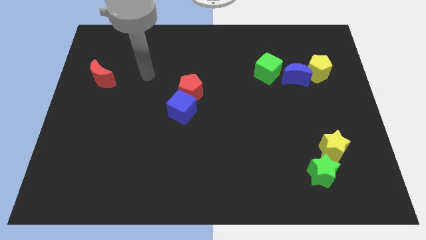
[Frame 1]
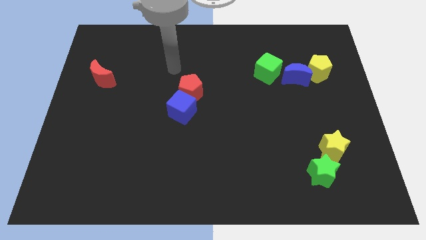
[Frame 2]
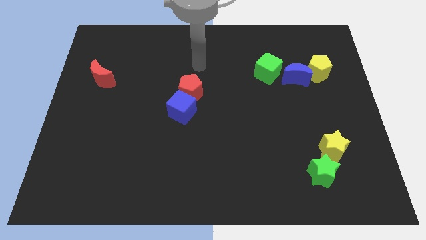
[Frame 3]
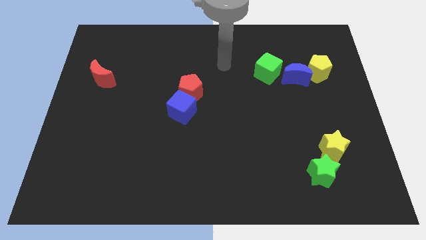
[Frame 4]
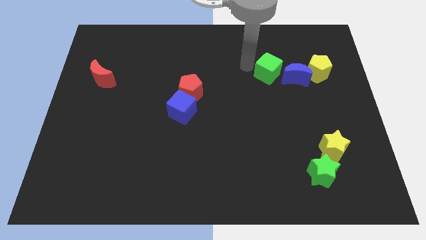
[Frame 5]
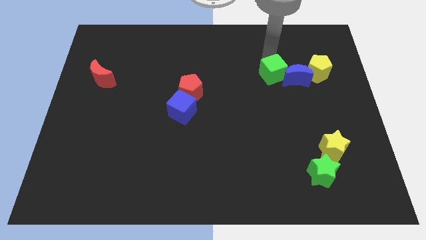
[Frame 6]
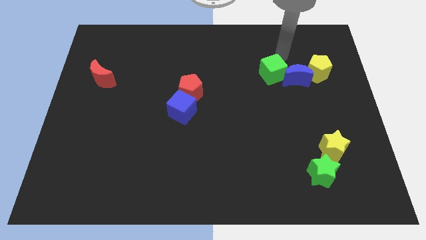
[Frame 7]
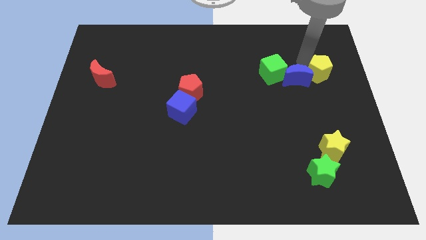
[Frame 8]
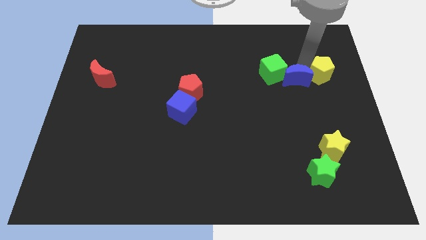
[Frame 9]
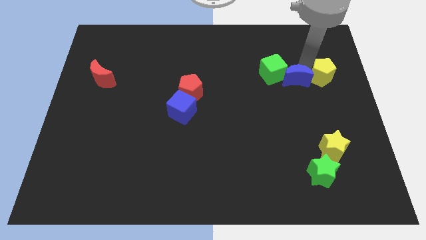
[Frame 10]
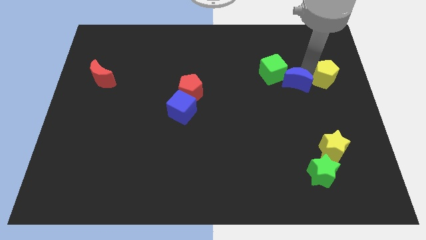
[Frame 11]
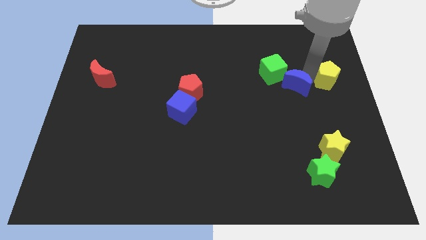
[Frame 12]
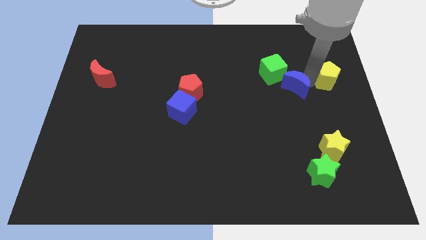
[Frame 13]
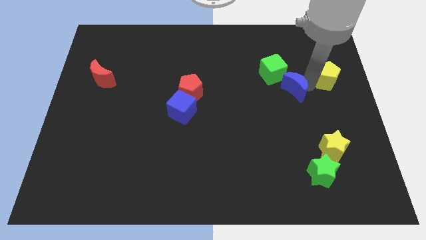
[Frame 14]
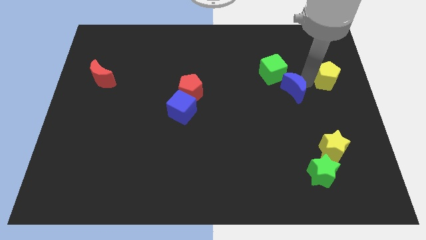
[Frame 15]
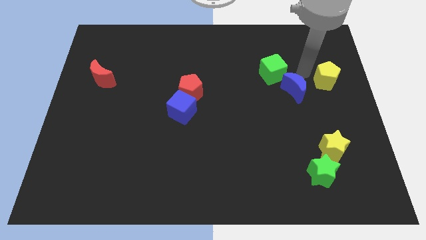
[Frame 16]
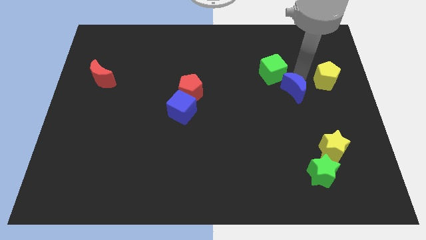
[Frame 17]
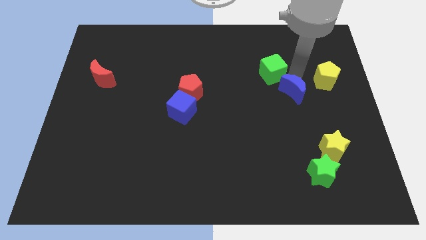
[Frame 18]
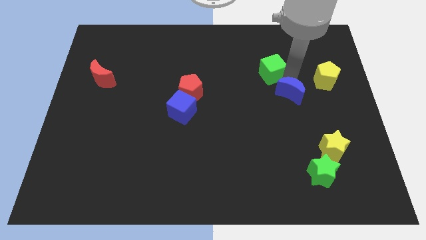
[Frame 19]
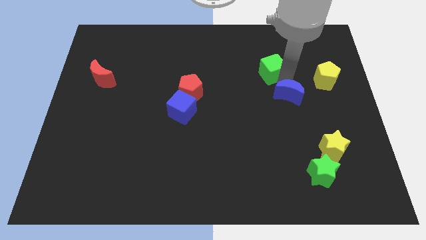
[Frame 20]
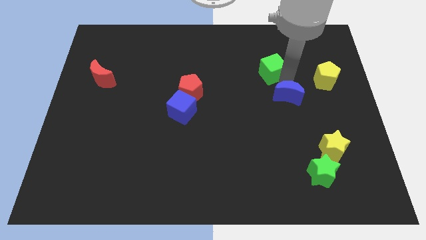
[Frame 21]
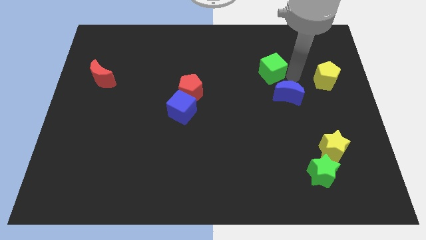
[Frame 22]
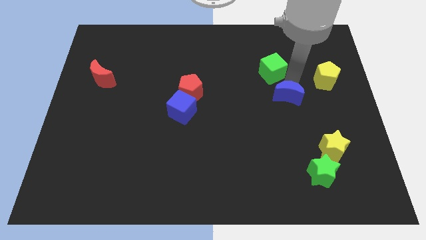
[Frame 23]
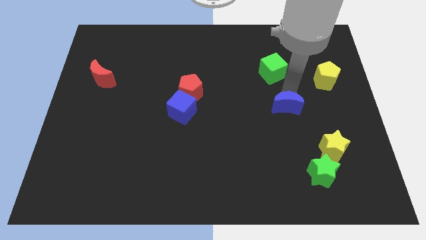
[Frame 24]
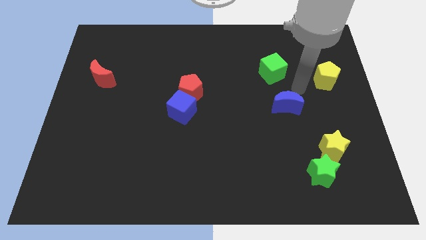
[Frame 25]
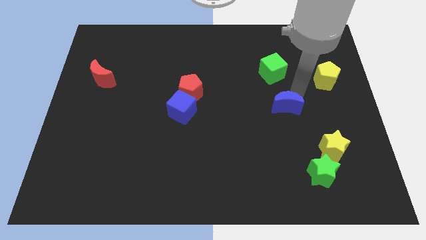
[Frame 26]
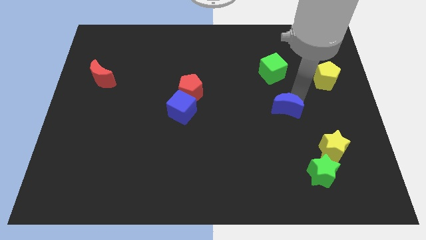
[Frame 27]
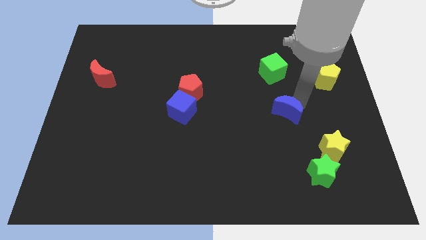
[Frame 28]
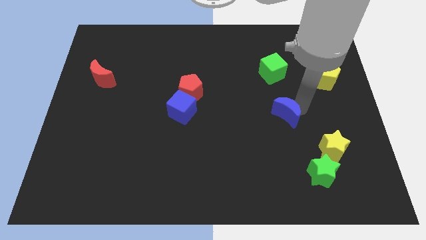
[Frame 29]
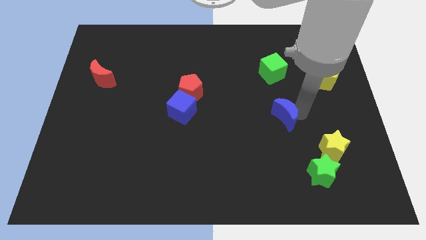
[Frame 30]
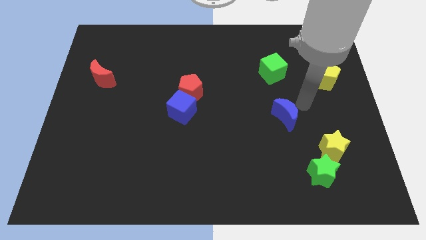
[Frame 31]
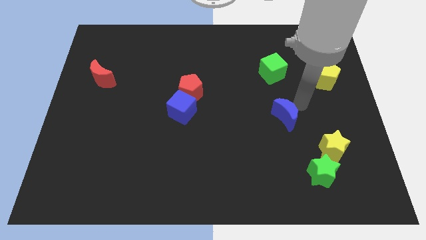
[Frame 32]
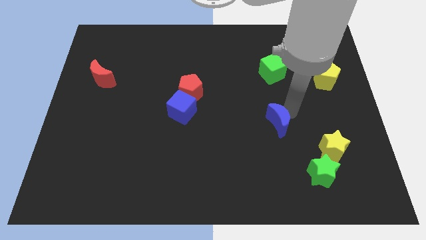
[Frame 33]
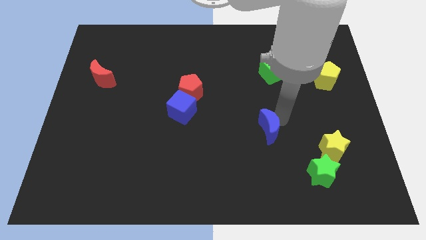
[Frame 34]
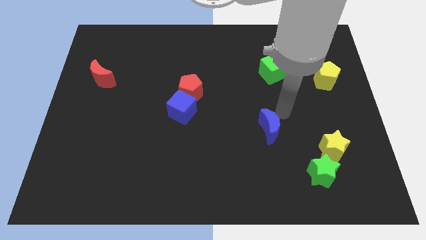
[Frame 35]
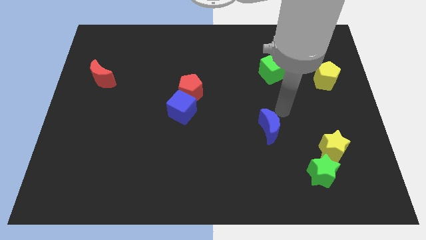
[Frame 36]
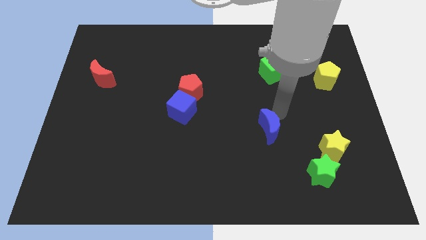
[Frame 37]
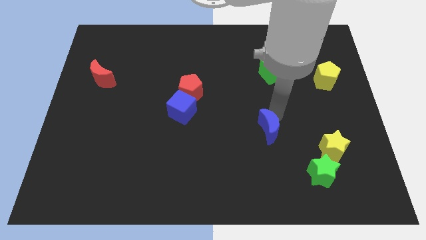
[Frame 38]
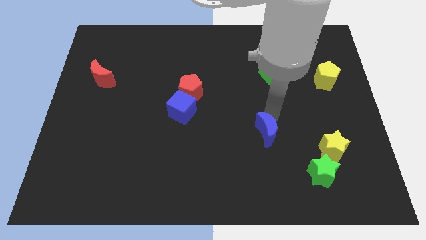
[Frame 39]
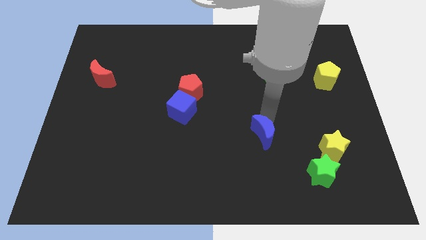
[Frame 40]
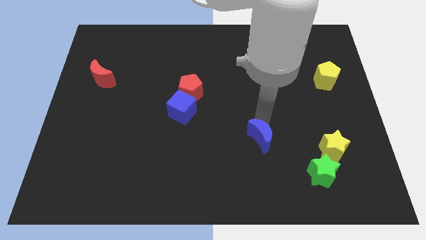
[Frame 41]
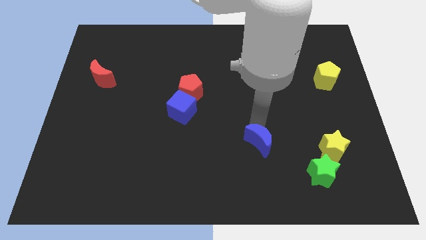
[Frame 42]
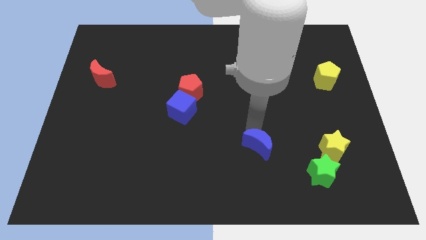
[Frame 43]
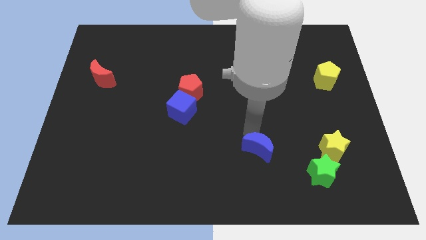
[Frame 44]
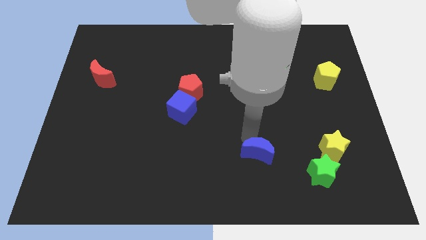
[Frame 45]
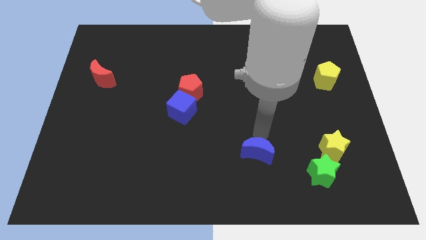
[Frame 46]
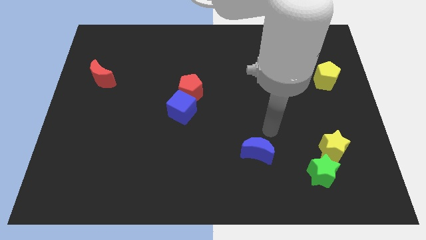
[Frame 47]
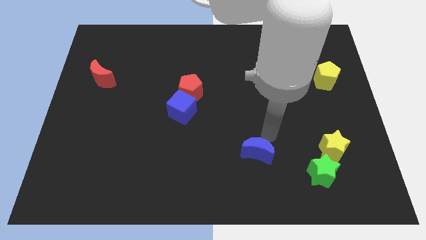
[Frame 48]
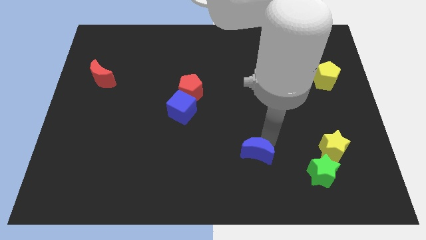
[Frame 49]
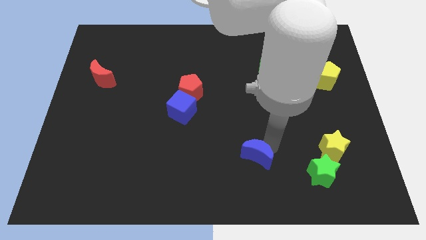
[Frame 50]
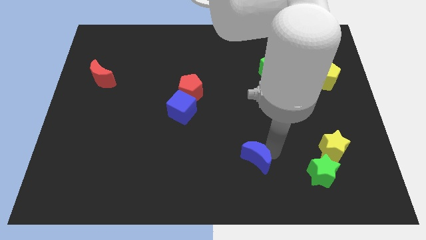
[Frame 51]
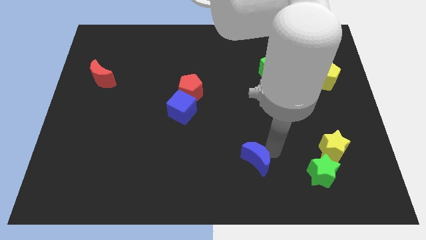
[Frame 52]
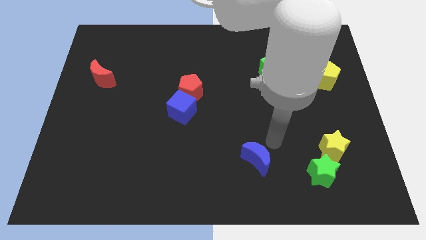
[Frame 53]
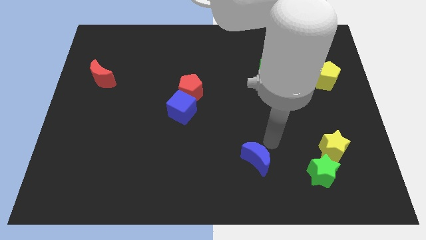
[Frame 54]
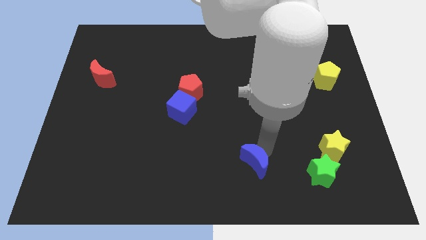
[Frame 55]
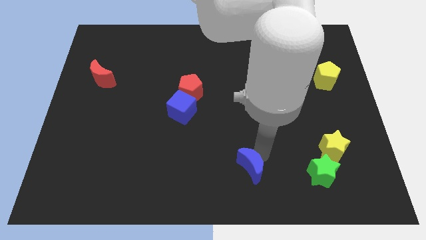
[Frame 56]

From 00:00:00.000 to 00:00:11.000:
push the blue moon to the bottom side

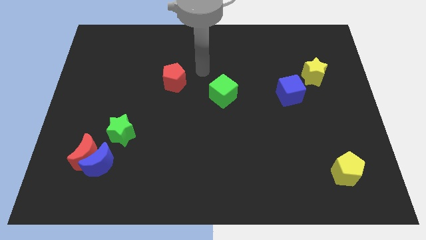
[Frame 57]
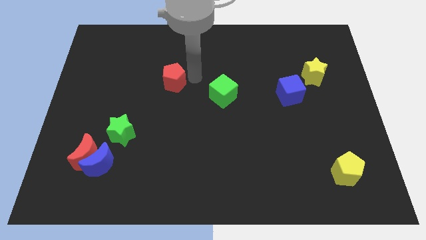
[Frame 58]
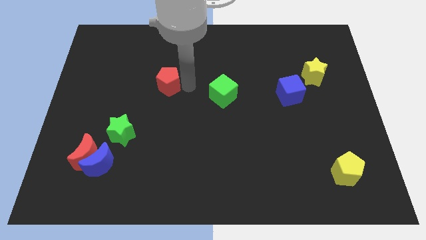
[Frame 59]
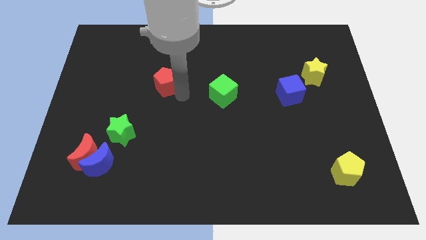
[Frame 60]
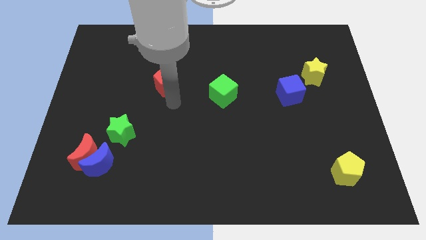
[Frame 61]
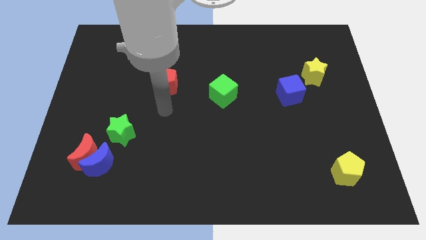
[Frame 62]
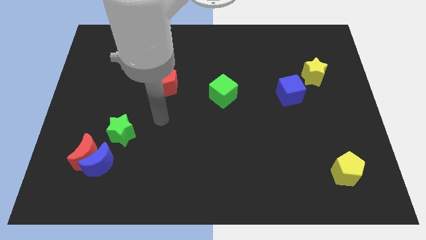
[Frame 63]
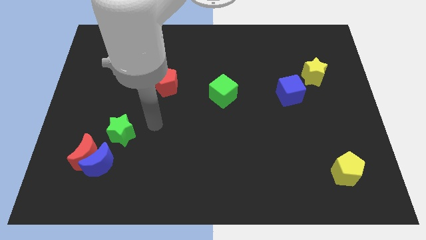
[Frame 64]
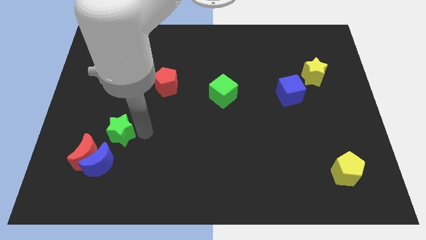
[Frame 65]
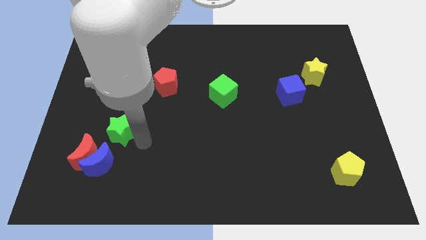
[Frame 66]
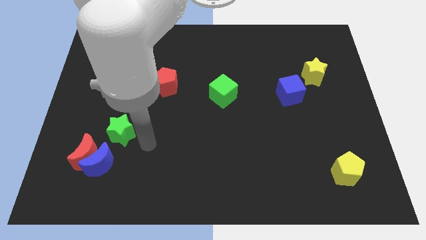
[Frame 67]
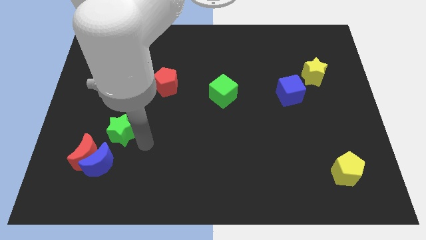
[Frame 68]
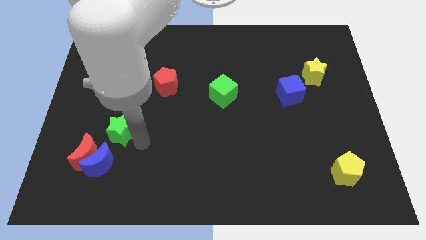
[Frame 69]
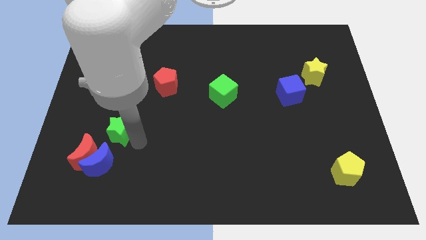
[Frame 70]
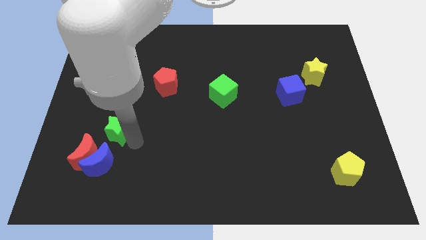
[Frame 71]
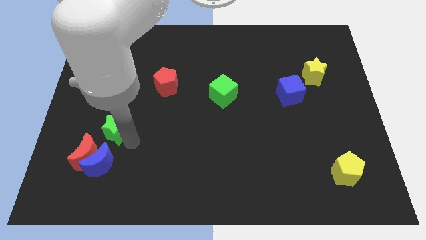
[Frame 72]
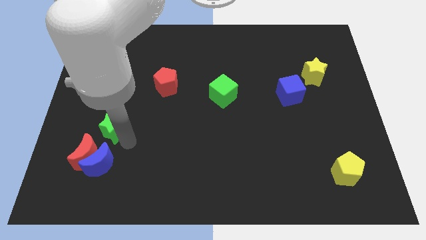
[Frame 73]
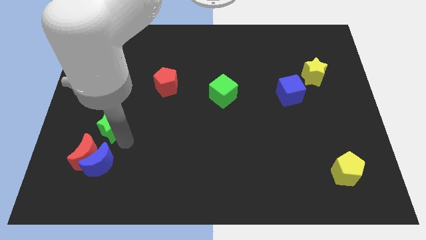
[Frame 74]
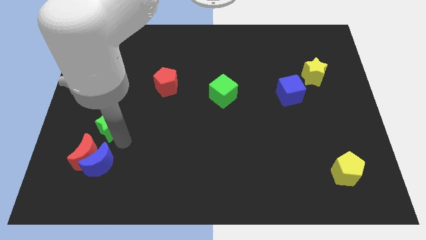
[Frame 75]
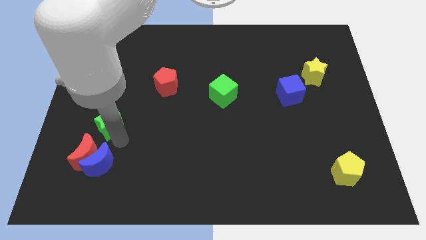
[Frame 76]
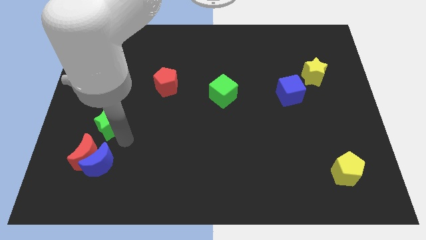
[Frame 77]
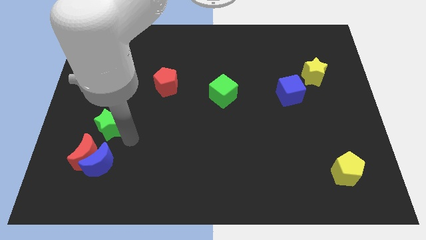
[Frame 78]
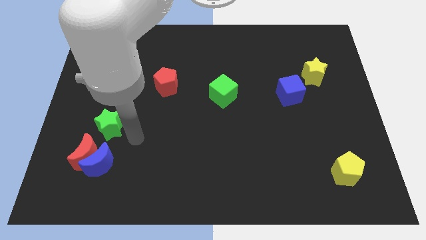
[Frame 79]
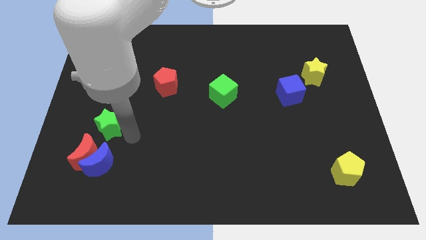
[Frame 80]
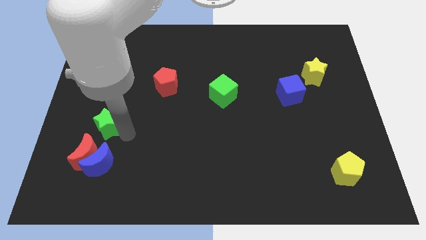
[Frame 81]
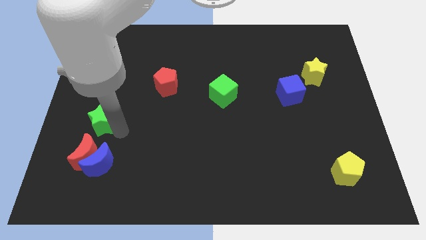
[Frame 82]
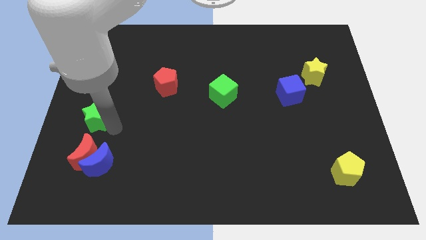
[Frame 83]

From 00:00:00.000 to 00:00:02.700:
put the green star to the center left

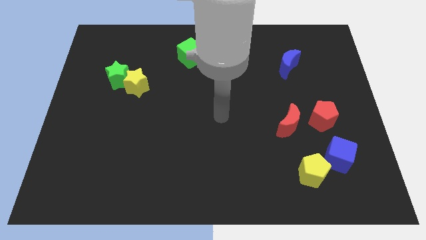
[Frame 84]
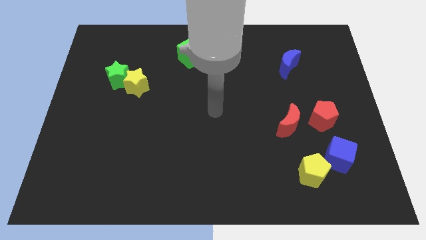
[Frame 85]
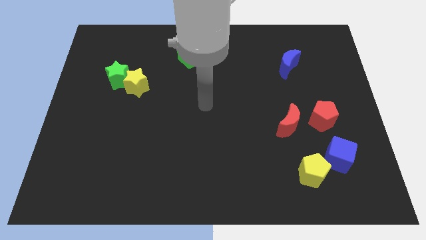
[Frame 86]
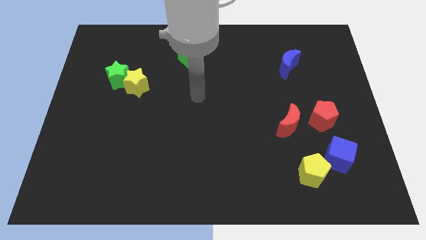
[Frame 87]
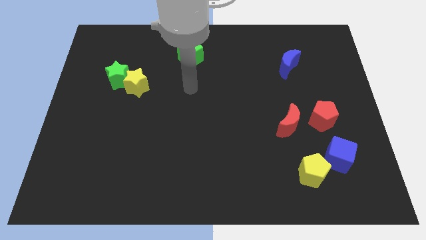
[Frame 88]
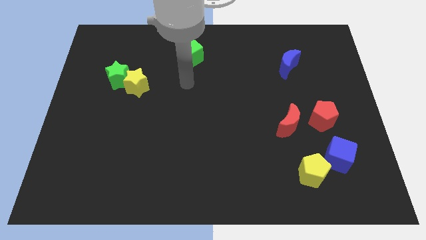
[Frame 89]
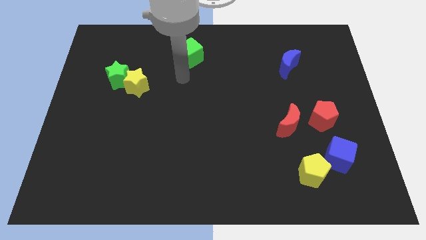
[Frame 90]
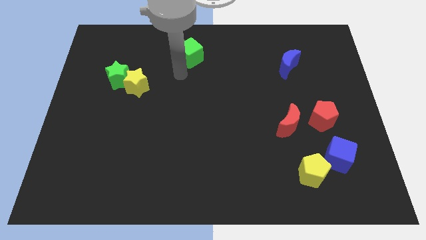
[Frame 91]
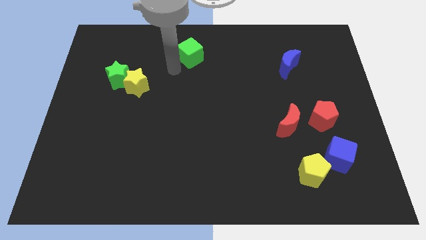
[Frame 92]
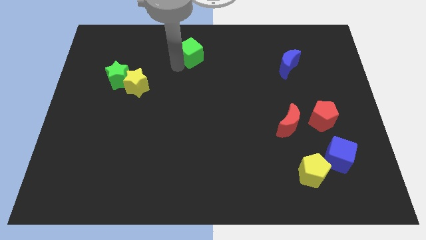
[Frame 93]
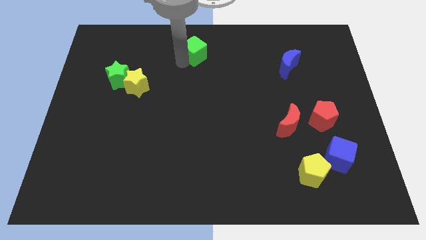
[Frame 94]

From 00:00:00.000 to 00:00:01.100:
put the green cube to the top
